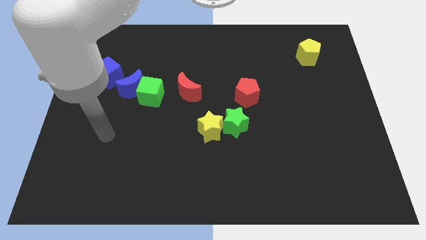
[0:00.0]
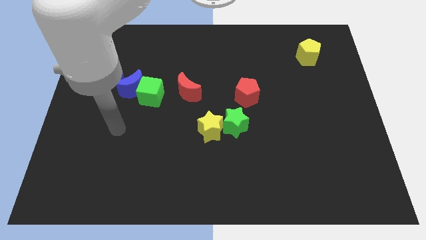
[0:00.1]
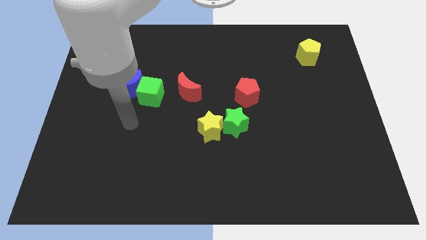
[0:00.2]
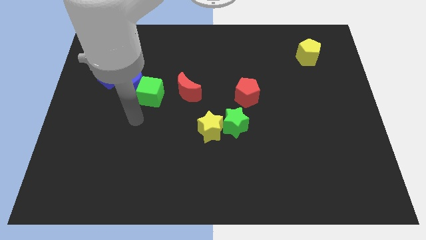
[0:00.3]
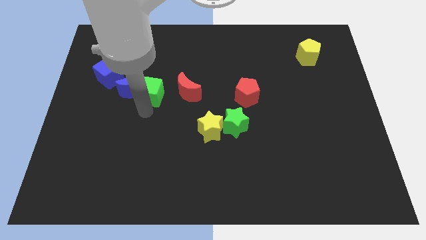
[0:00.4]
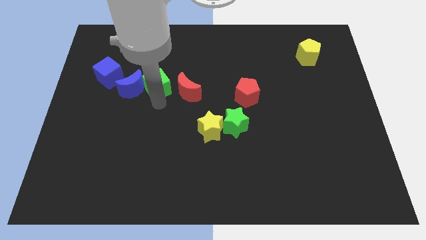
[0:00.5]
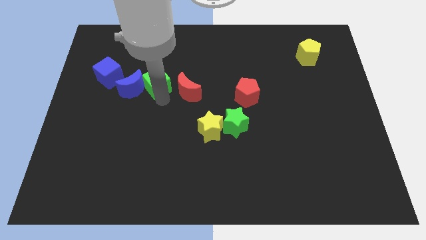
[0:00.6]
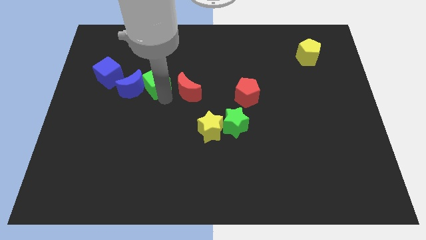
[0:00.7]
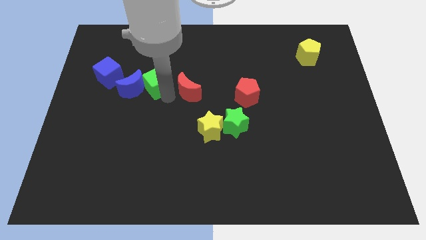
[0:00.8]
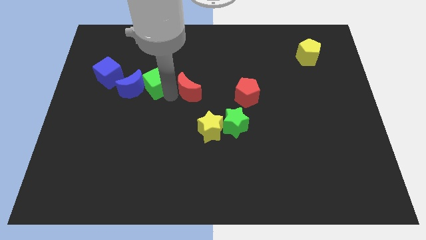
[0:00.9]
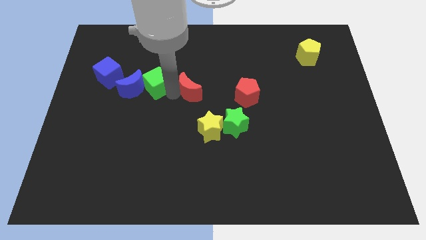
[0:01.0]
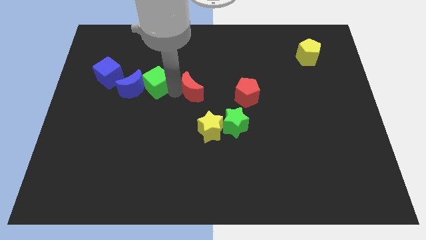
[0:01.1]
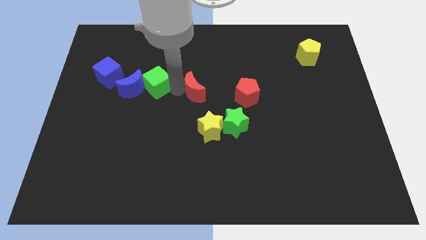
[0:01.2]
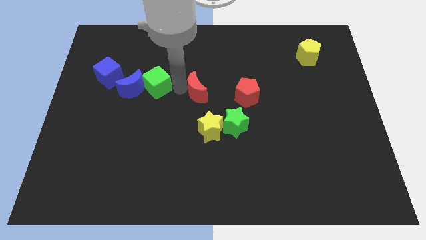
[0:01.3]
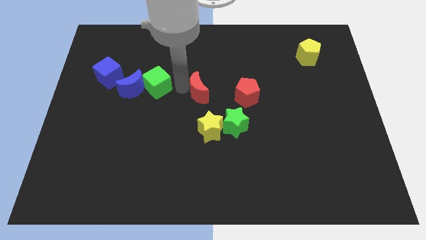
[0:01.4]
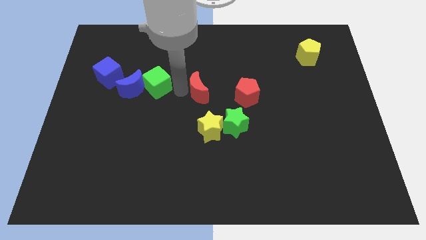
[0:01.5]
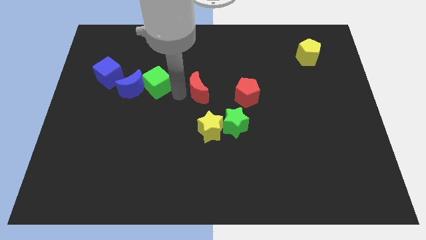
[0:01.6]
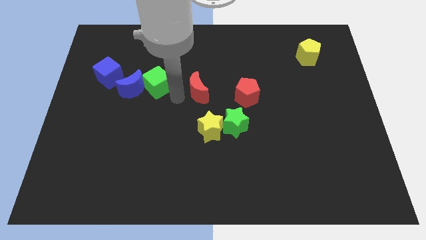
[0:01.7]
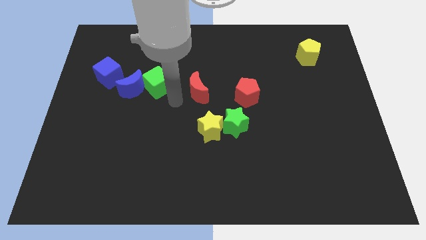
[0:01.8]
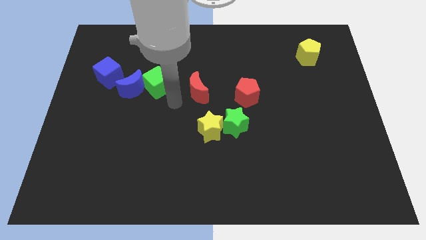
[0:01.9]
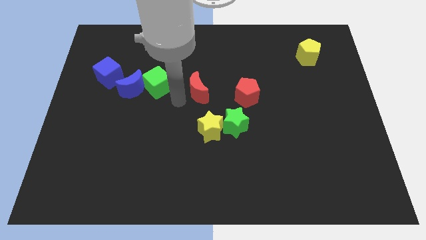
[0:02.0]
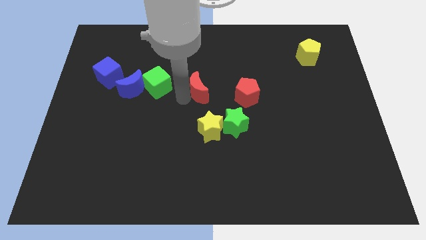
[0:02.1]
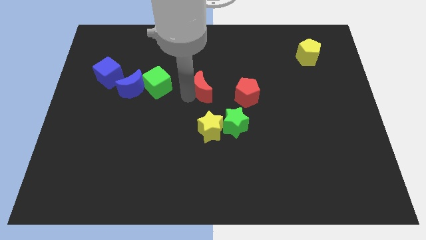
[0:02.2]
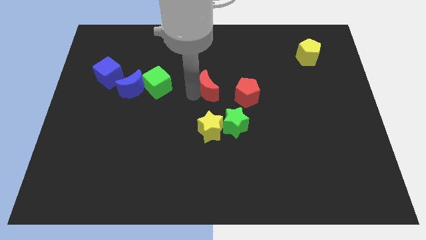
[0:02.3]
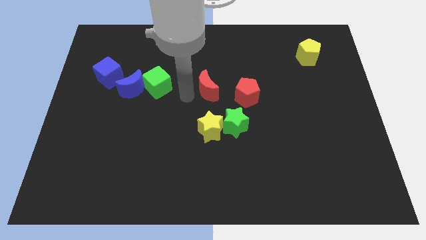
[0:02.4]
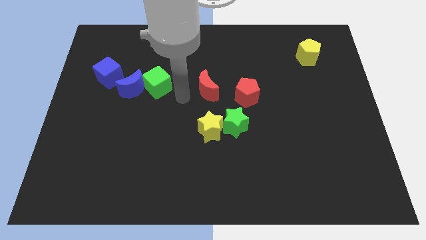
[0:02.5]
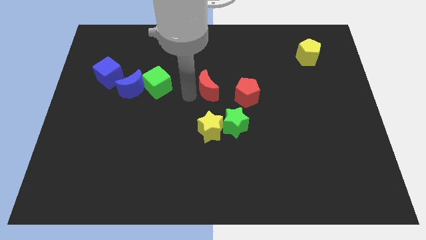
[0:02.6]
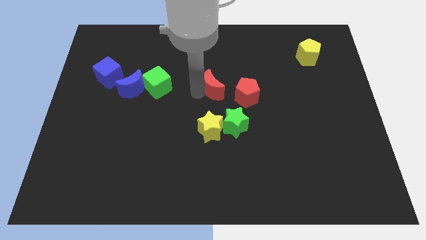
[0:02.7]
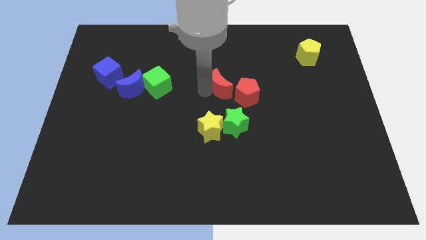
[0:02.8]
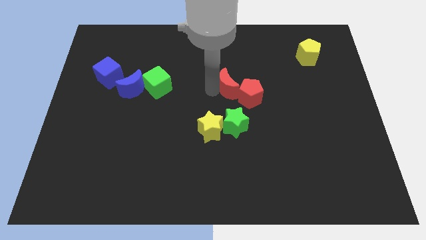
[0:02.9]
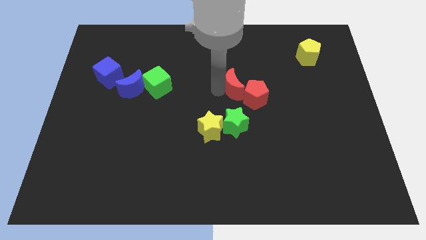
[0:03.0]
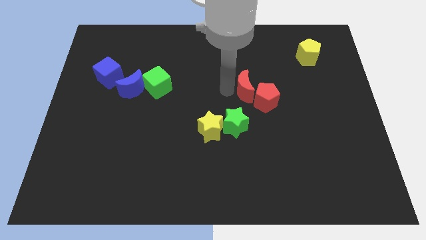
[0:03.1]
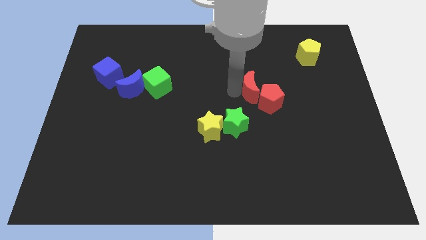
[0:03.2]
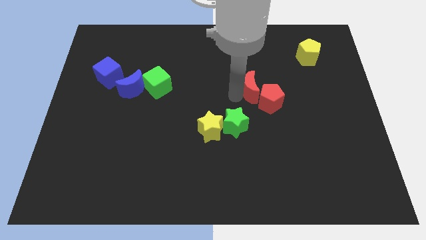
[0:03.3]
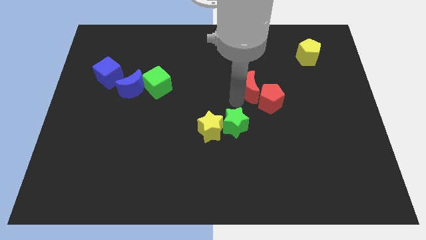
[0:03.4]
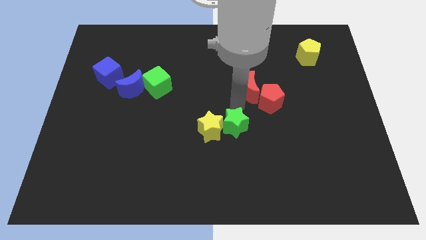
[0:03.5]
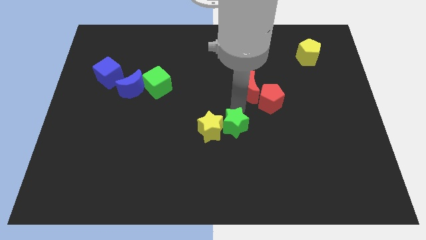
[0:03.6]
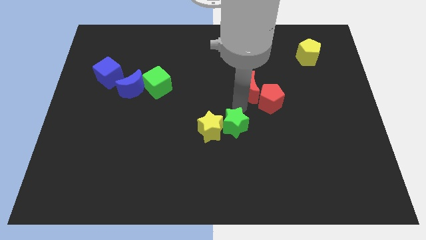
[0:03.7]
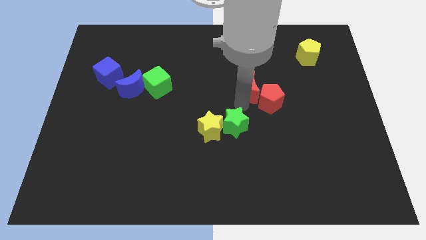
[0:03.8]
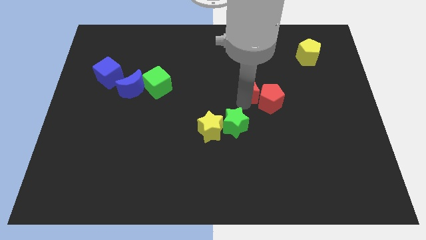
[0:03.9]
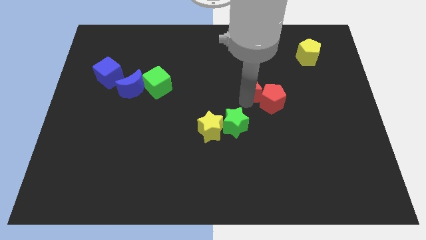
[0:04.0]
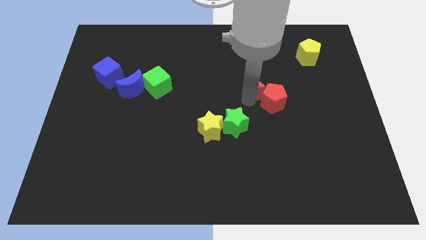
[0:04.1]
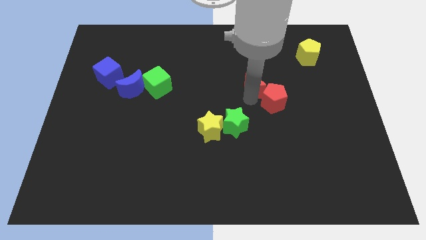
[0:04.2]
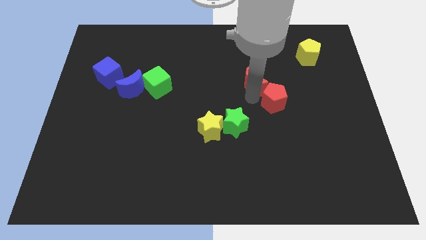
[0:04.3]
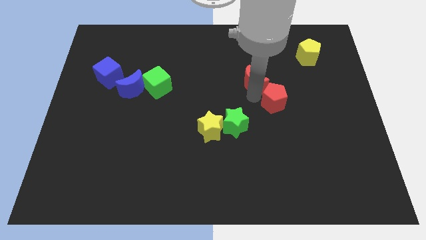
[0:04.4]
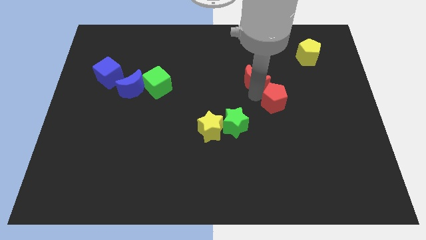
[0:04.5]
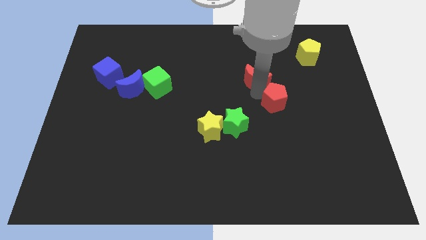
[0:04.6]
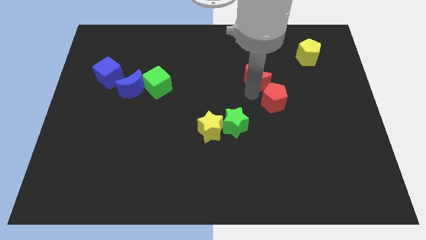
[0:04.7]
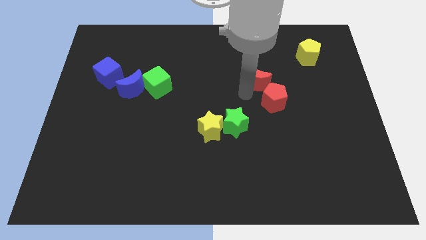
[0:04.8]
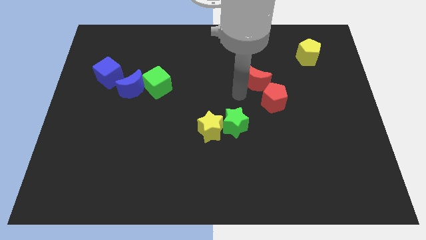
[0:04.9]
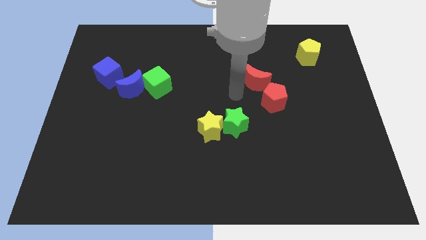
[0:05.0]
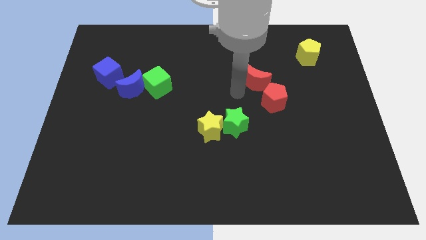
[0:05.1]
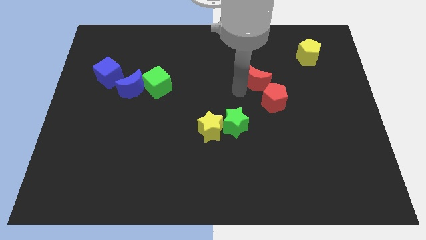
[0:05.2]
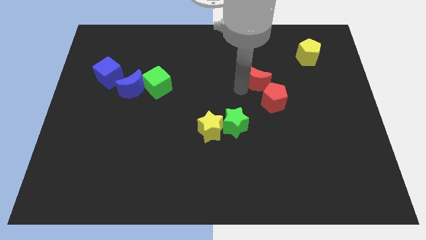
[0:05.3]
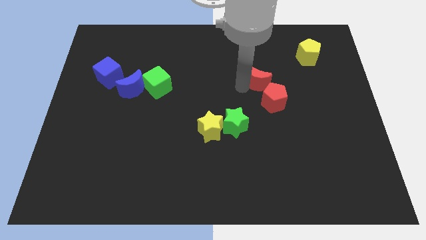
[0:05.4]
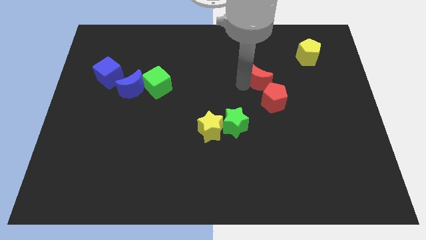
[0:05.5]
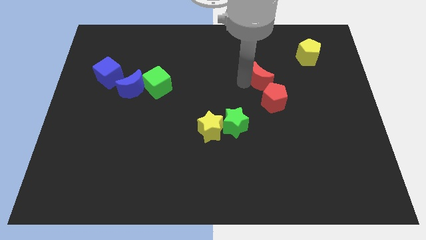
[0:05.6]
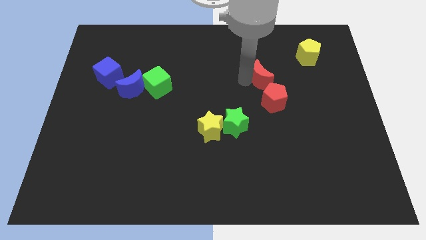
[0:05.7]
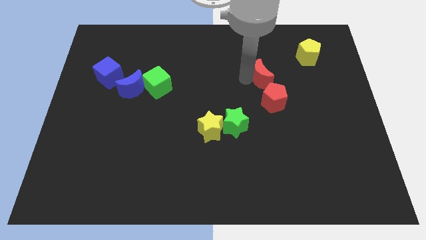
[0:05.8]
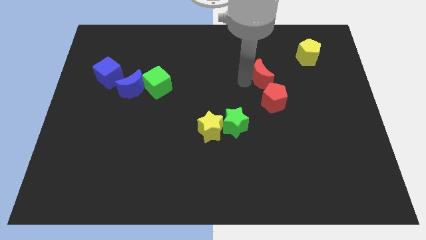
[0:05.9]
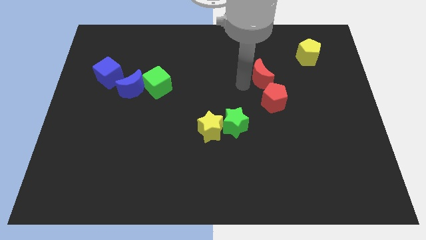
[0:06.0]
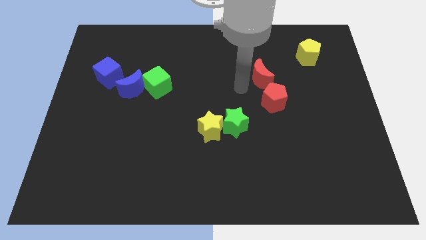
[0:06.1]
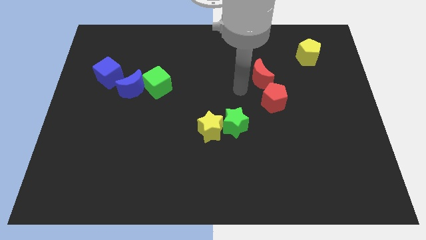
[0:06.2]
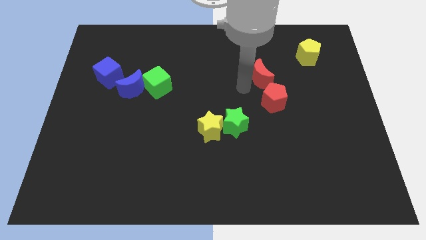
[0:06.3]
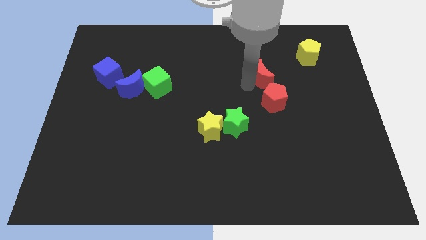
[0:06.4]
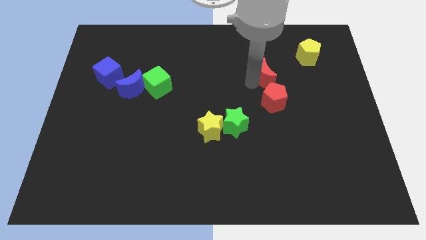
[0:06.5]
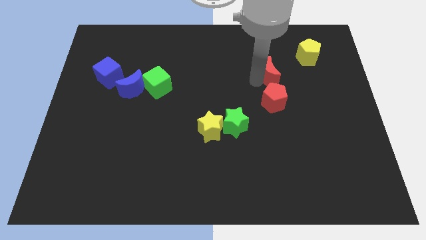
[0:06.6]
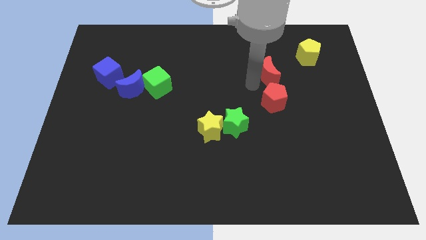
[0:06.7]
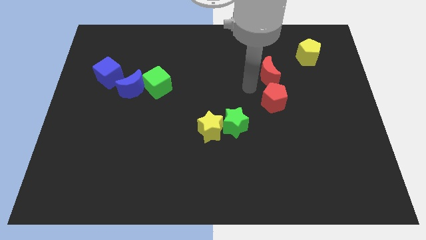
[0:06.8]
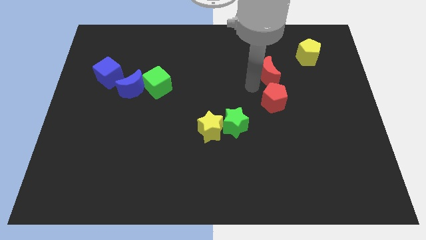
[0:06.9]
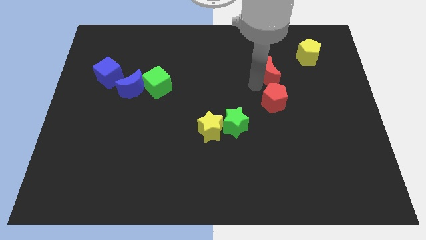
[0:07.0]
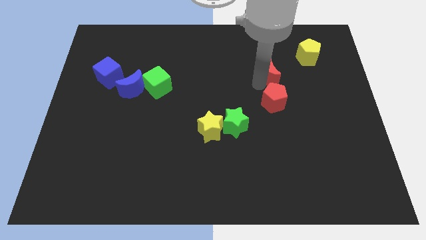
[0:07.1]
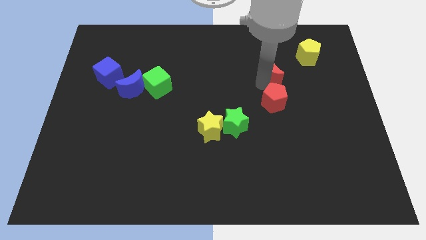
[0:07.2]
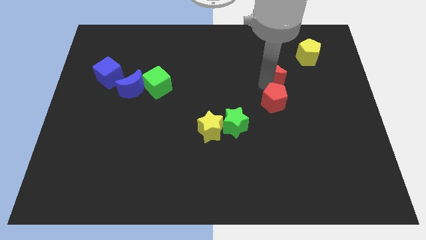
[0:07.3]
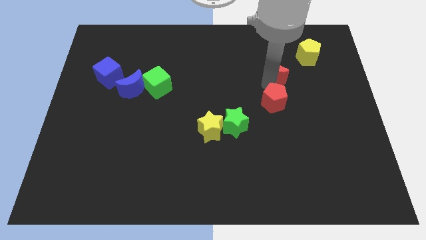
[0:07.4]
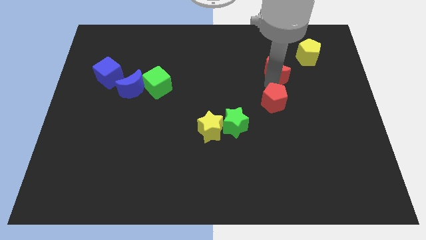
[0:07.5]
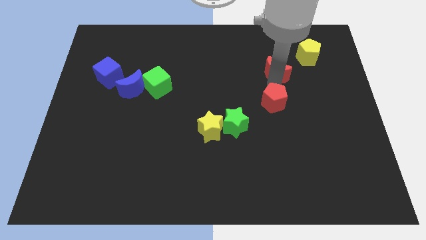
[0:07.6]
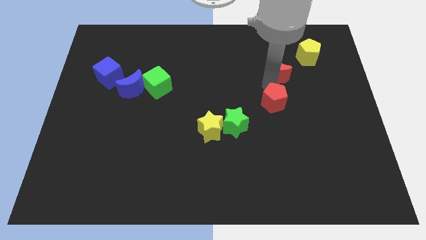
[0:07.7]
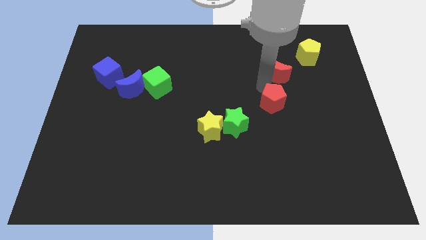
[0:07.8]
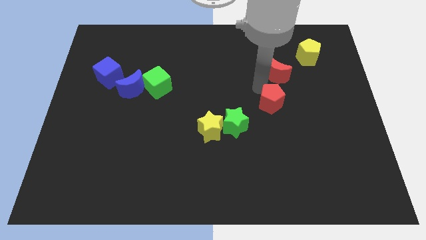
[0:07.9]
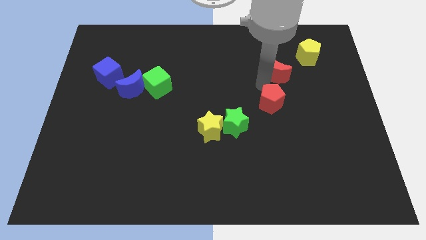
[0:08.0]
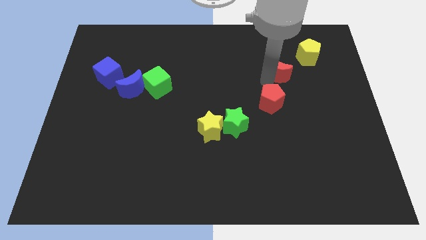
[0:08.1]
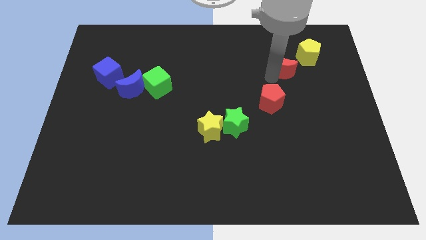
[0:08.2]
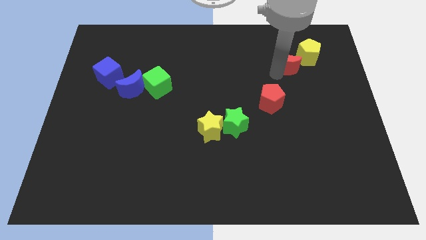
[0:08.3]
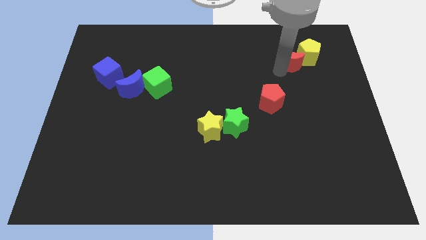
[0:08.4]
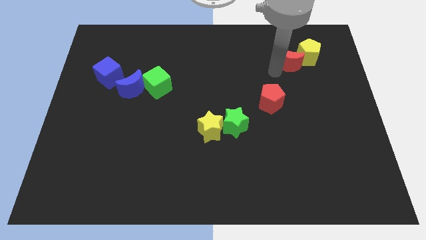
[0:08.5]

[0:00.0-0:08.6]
slide the red moon next to the yellow pentagon
